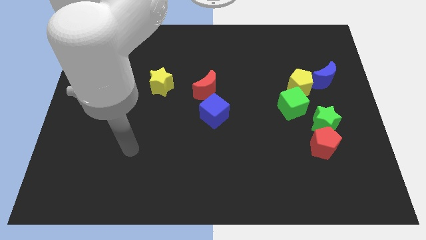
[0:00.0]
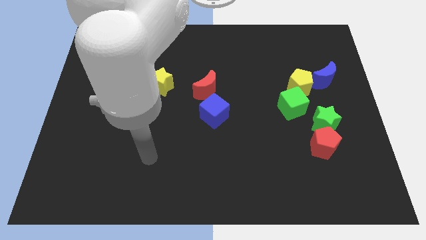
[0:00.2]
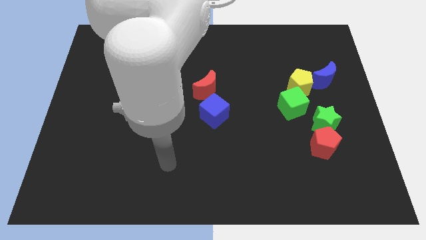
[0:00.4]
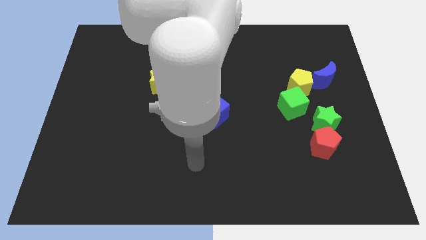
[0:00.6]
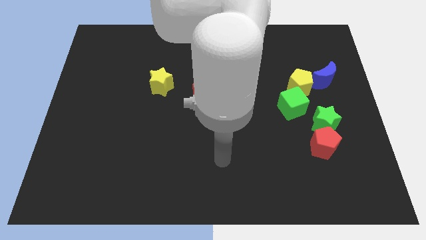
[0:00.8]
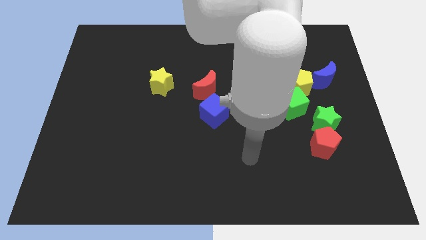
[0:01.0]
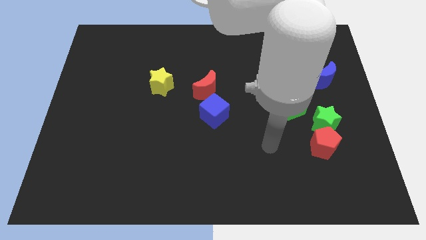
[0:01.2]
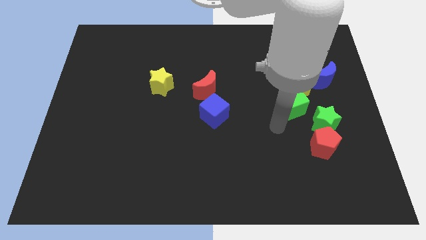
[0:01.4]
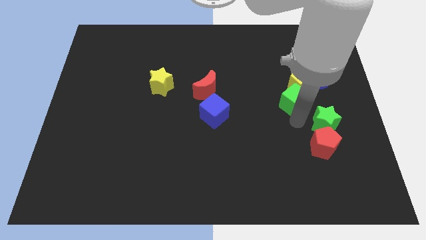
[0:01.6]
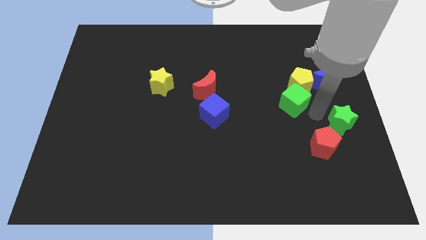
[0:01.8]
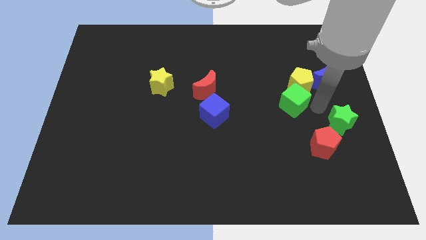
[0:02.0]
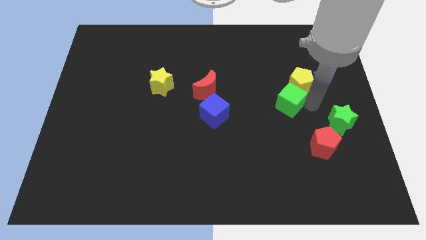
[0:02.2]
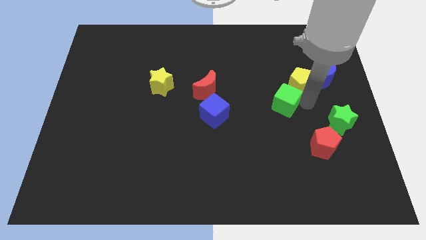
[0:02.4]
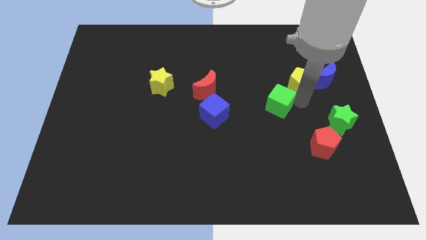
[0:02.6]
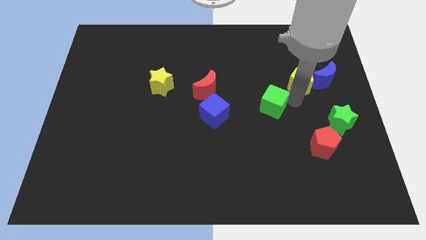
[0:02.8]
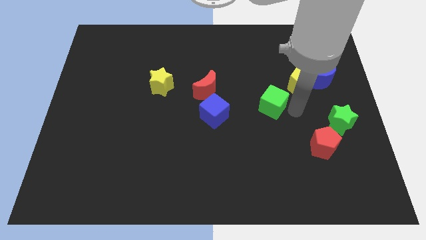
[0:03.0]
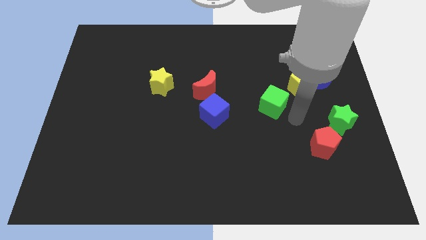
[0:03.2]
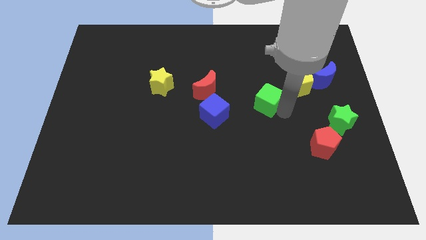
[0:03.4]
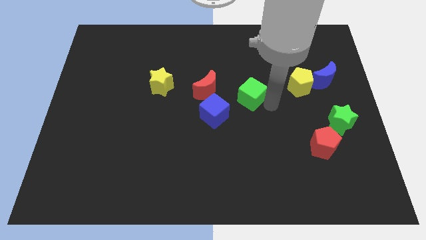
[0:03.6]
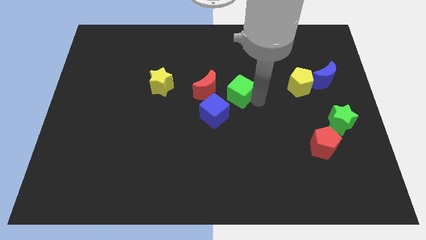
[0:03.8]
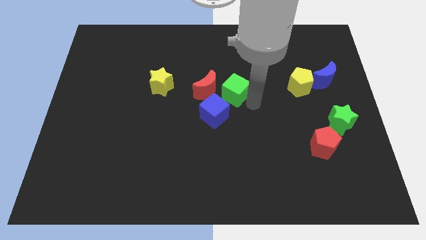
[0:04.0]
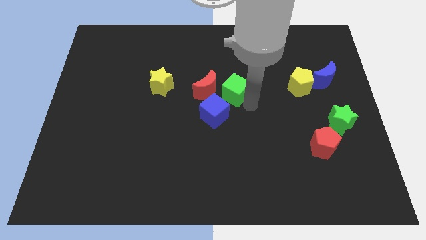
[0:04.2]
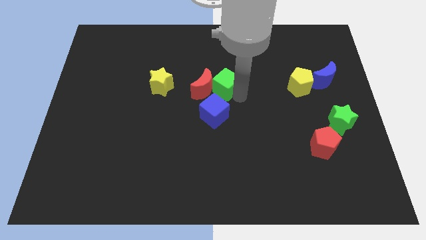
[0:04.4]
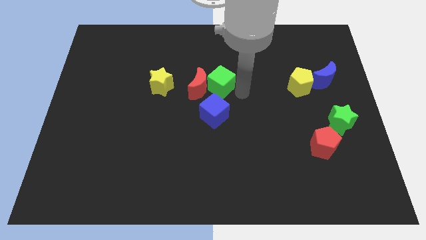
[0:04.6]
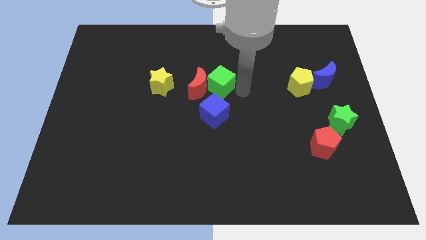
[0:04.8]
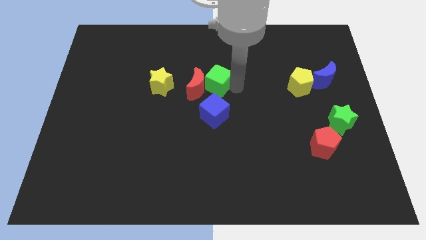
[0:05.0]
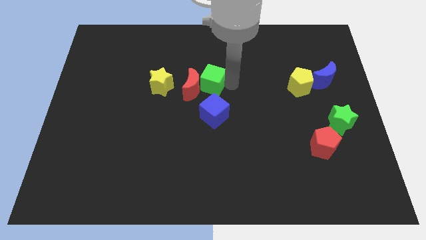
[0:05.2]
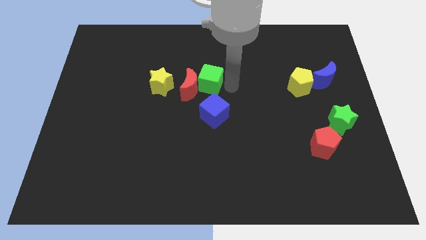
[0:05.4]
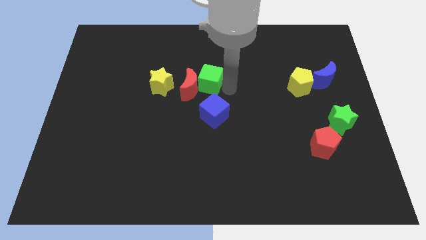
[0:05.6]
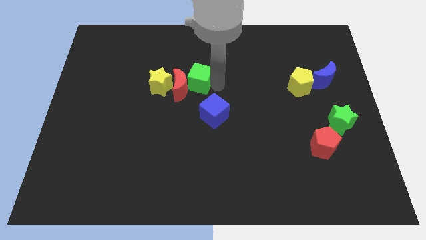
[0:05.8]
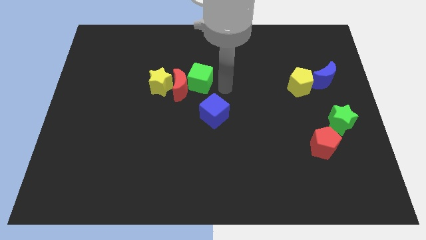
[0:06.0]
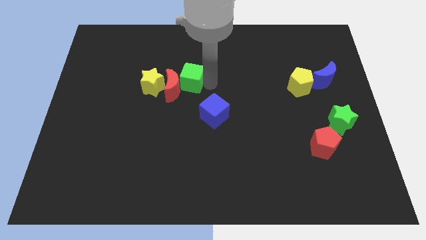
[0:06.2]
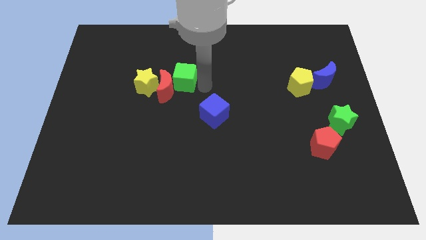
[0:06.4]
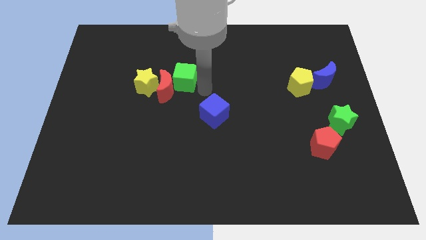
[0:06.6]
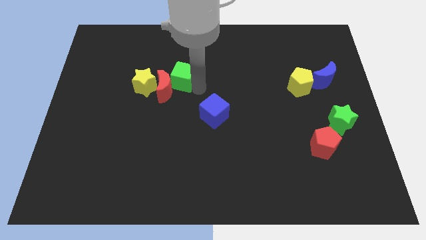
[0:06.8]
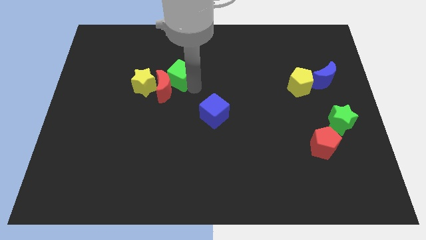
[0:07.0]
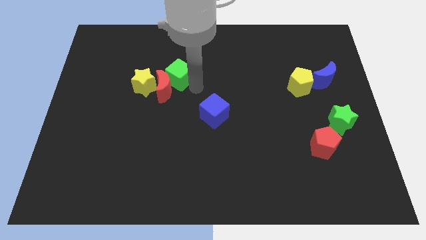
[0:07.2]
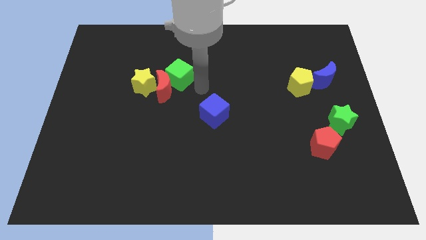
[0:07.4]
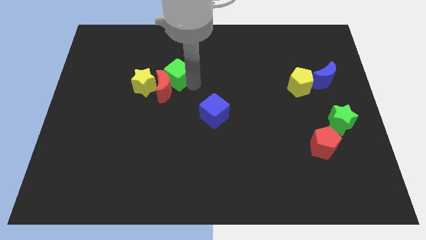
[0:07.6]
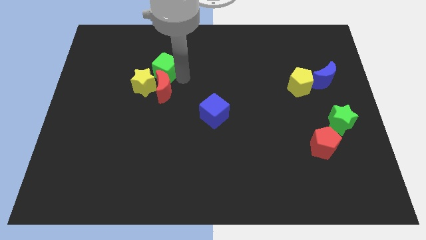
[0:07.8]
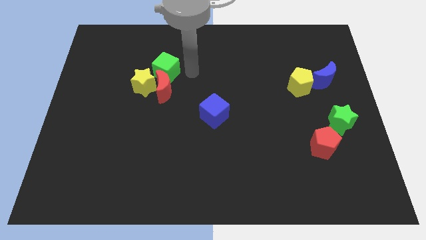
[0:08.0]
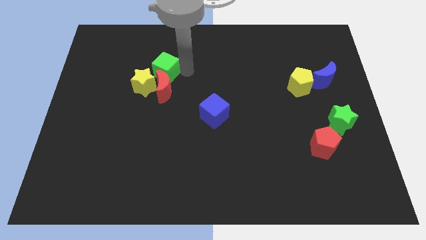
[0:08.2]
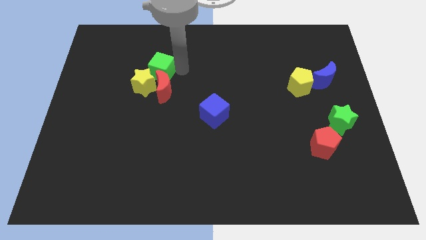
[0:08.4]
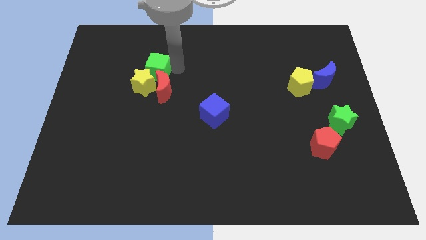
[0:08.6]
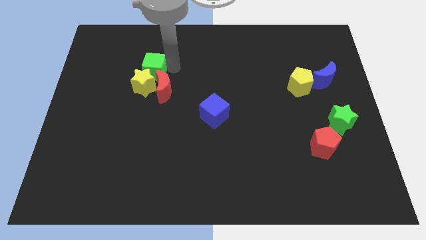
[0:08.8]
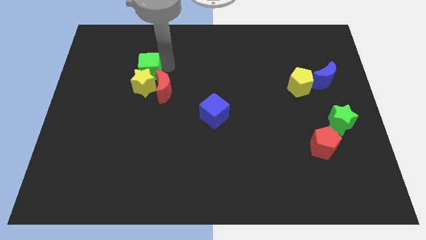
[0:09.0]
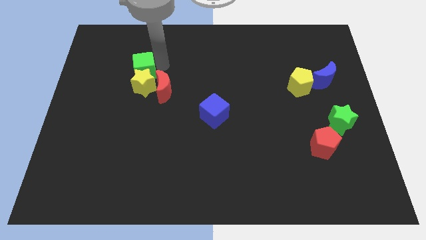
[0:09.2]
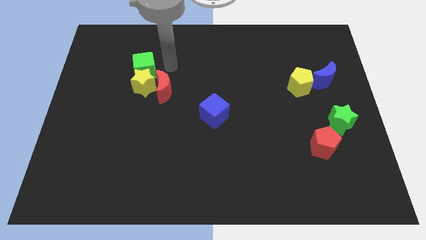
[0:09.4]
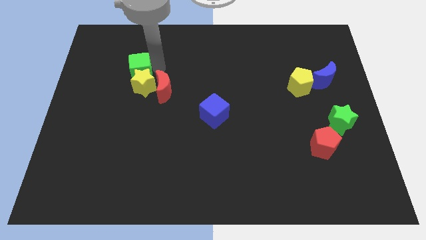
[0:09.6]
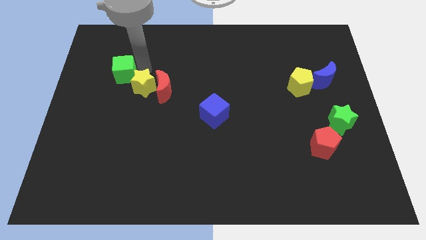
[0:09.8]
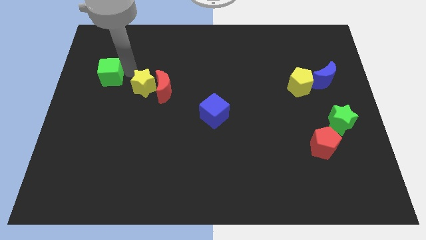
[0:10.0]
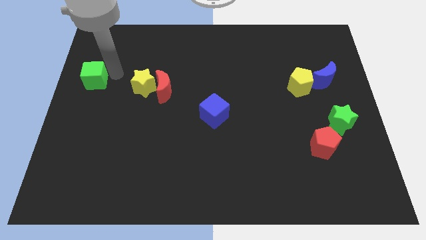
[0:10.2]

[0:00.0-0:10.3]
slide the green cube to the center left

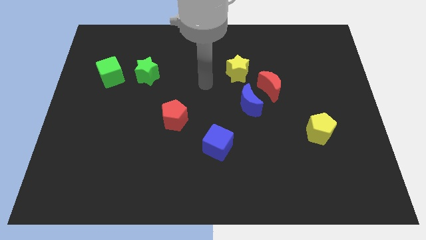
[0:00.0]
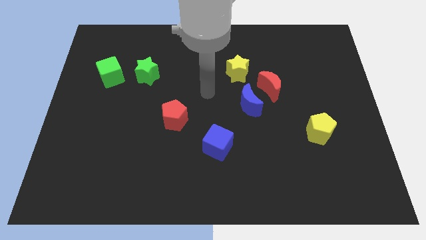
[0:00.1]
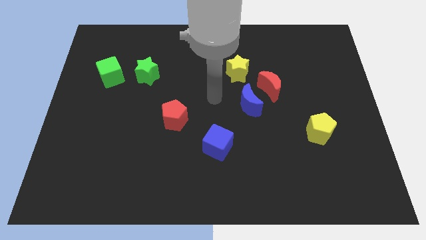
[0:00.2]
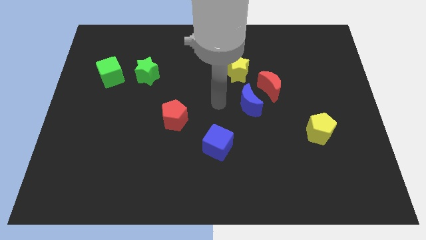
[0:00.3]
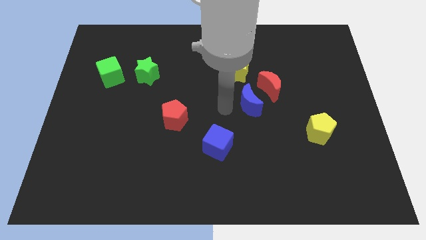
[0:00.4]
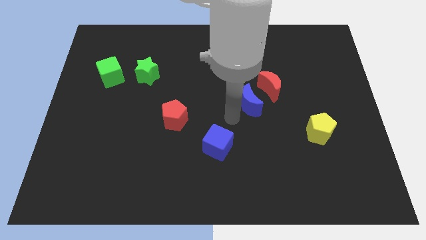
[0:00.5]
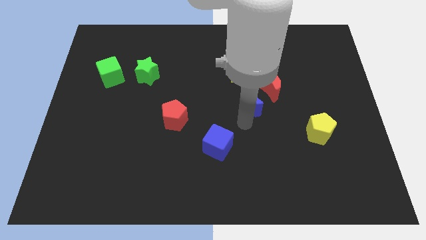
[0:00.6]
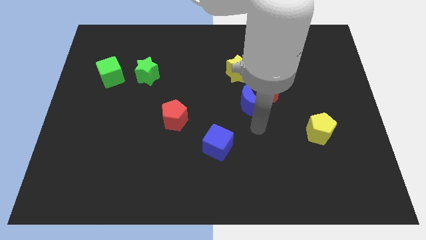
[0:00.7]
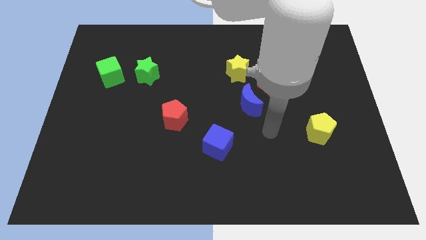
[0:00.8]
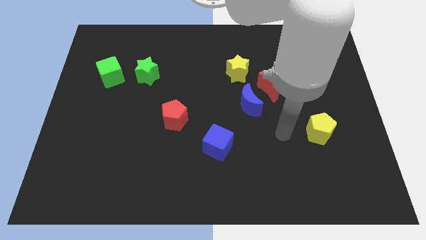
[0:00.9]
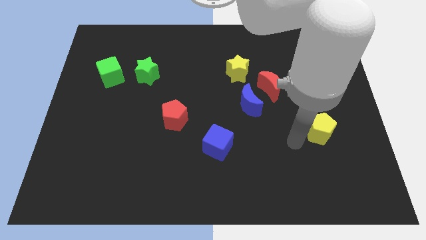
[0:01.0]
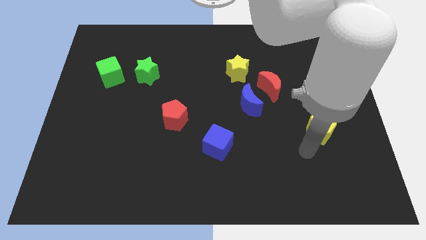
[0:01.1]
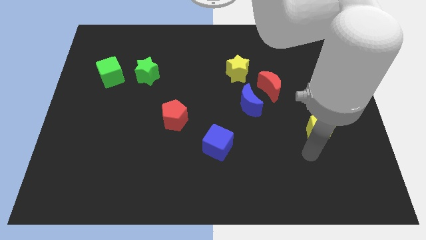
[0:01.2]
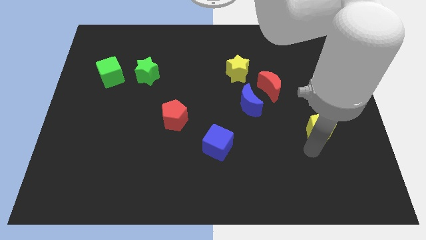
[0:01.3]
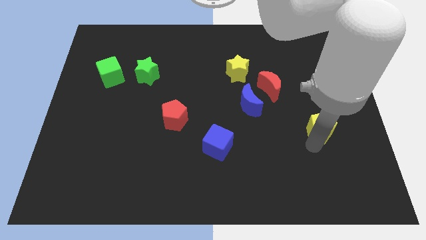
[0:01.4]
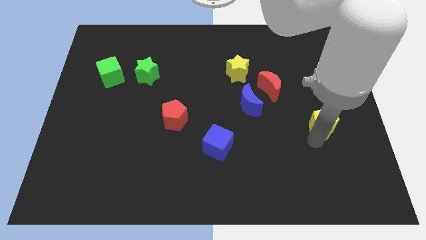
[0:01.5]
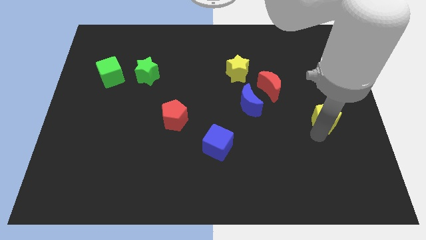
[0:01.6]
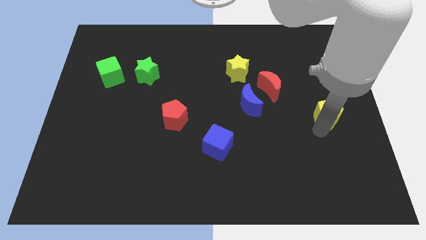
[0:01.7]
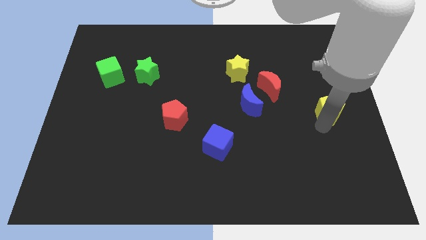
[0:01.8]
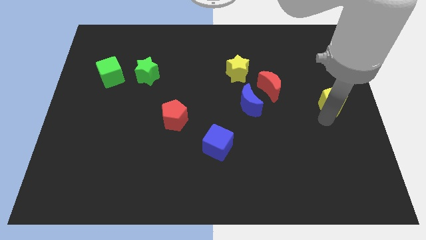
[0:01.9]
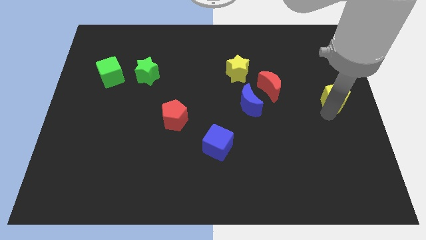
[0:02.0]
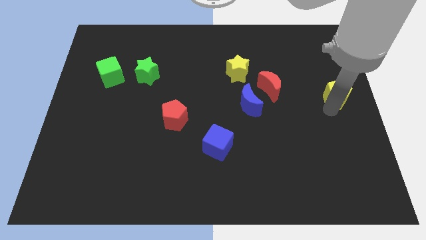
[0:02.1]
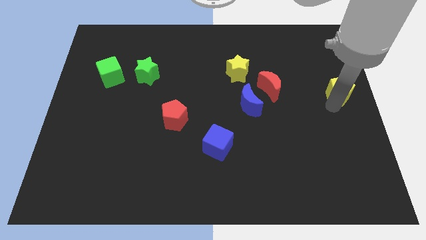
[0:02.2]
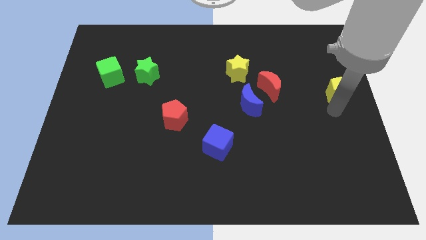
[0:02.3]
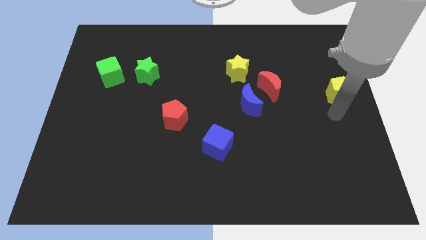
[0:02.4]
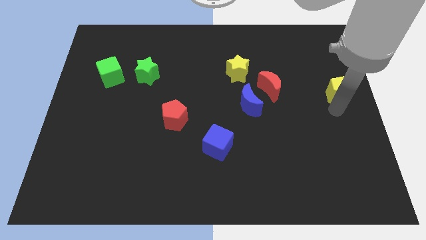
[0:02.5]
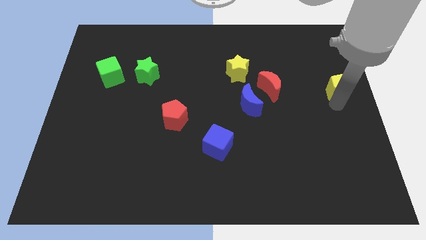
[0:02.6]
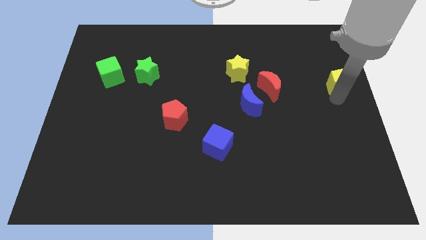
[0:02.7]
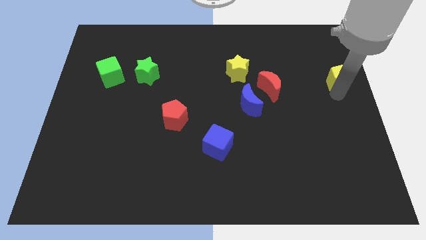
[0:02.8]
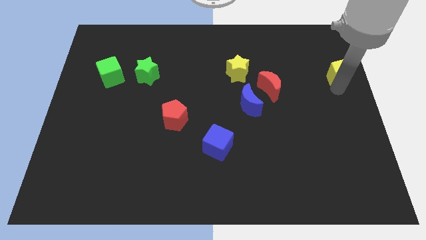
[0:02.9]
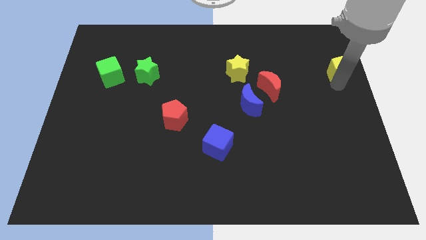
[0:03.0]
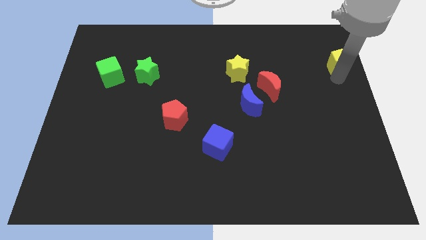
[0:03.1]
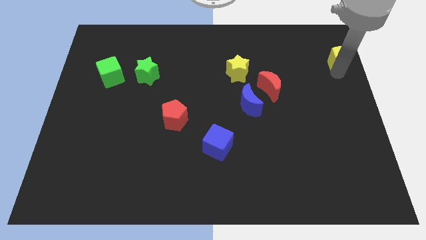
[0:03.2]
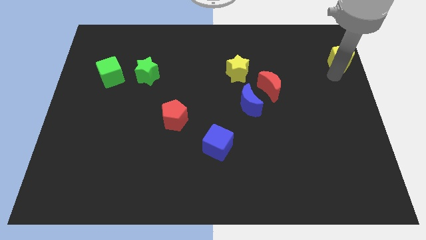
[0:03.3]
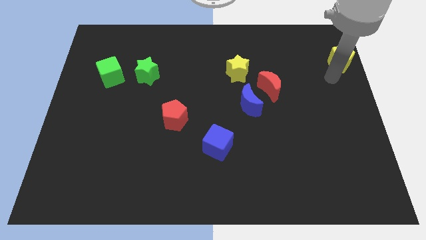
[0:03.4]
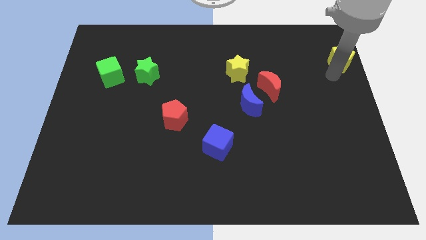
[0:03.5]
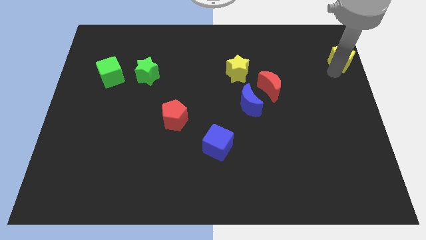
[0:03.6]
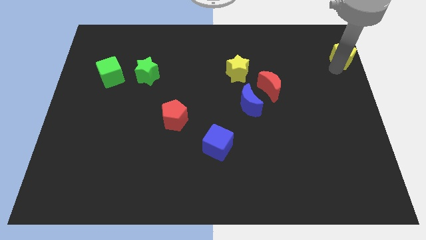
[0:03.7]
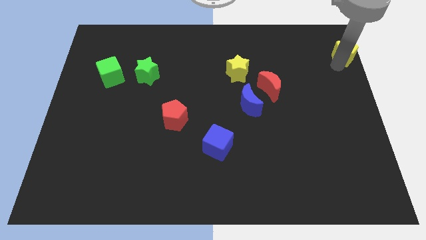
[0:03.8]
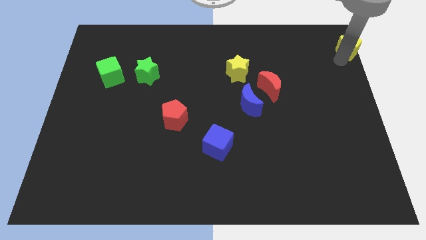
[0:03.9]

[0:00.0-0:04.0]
move the yellow pentagon to the top right of the board
